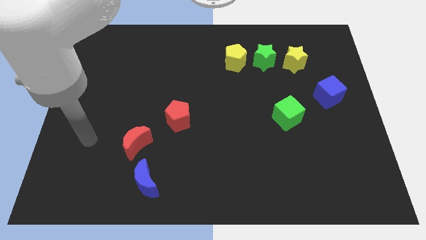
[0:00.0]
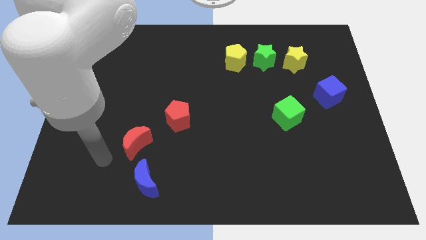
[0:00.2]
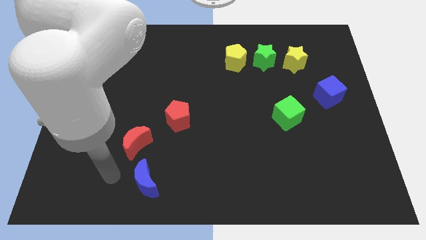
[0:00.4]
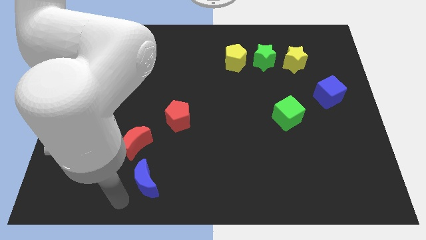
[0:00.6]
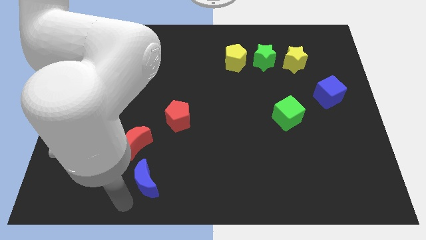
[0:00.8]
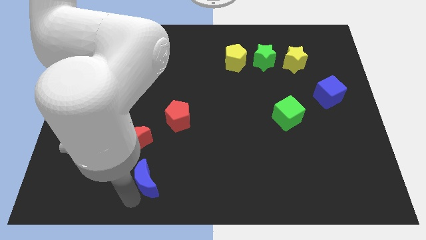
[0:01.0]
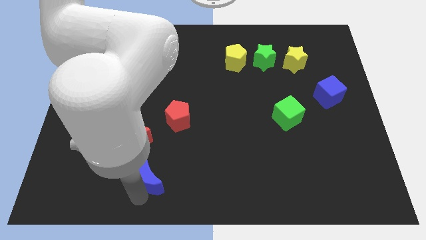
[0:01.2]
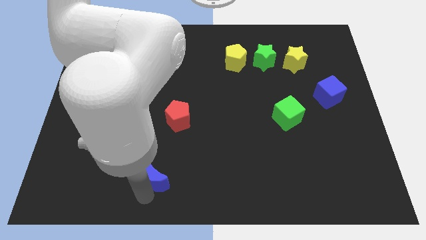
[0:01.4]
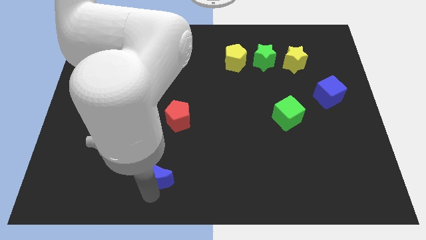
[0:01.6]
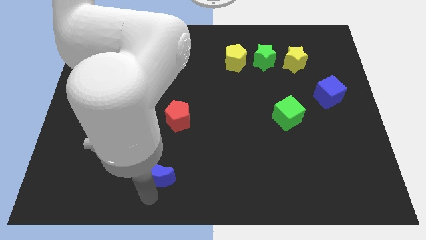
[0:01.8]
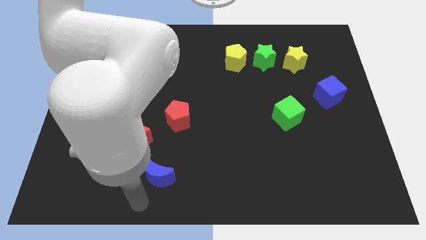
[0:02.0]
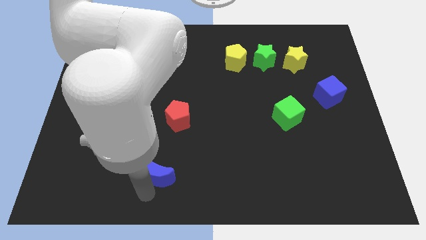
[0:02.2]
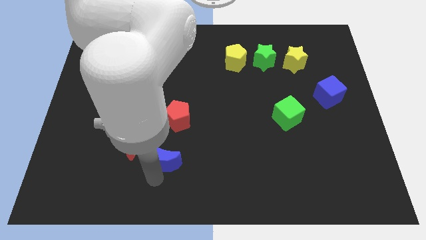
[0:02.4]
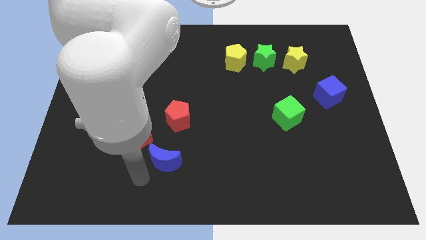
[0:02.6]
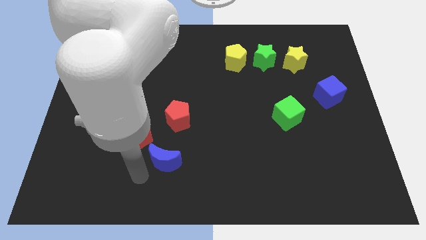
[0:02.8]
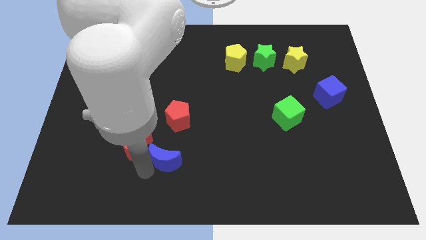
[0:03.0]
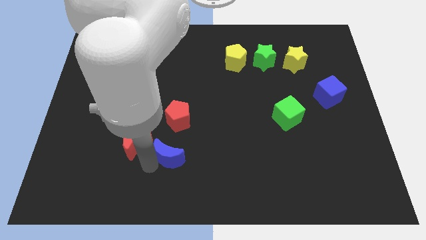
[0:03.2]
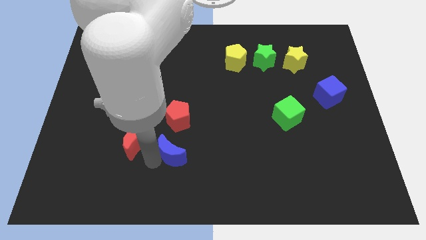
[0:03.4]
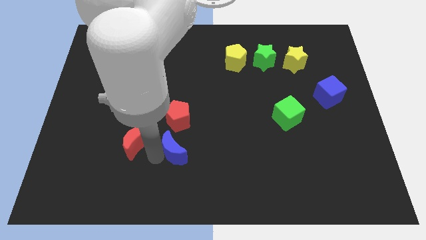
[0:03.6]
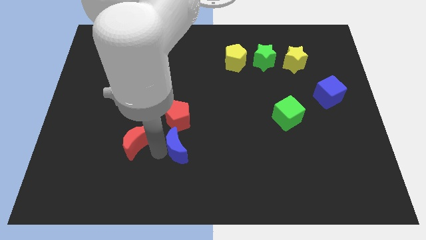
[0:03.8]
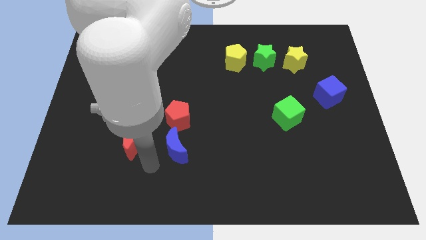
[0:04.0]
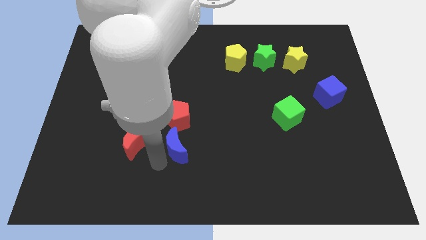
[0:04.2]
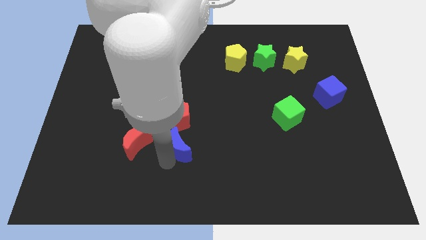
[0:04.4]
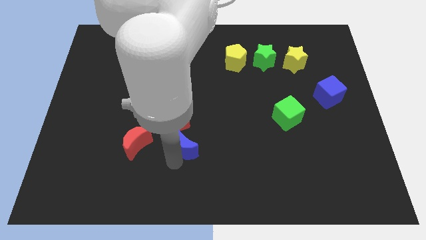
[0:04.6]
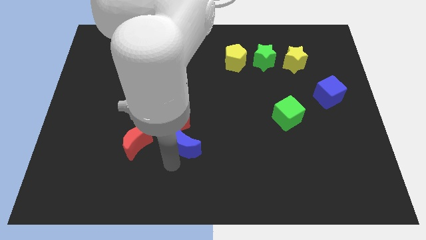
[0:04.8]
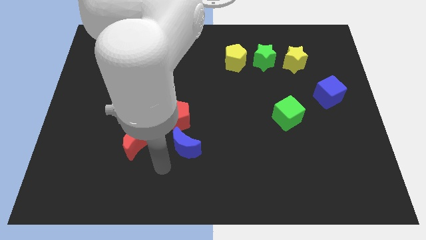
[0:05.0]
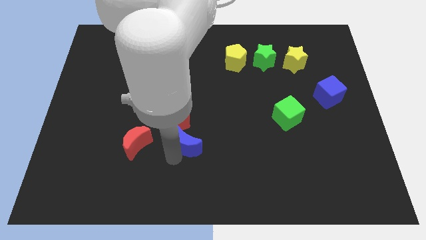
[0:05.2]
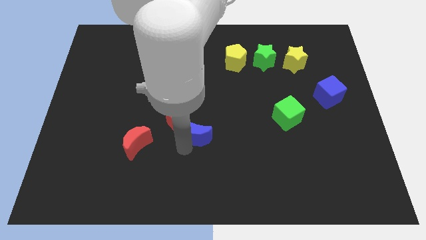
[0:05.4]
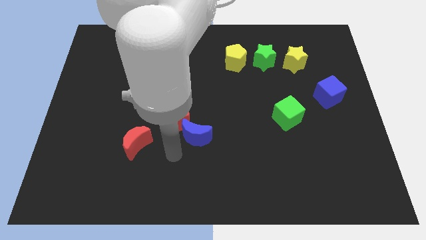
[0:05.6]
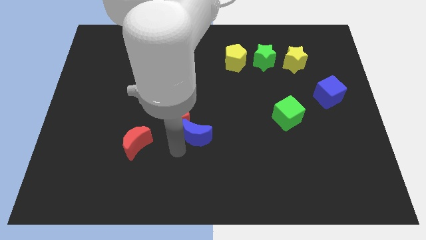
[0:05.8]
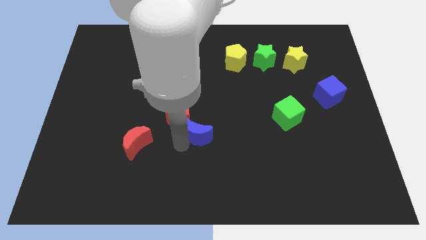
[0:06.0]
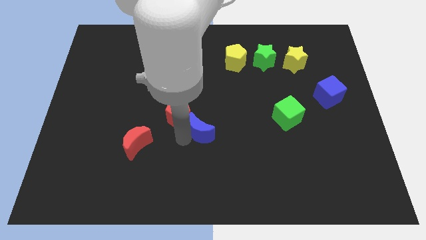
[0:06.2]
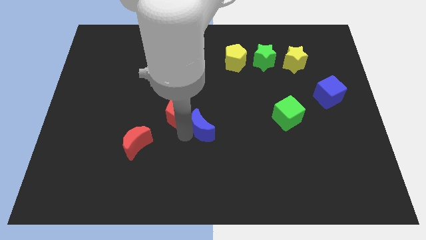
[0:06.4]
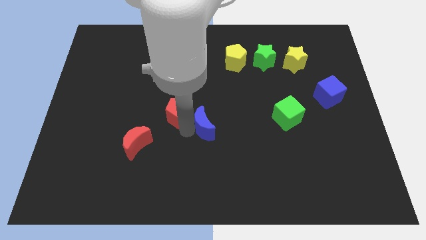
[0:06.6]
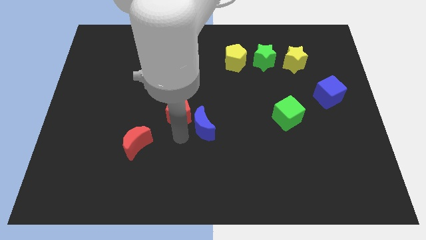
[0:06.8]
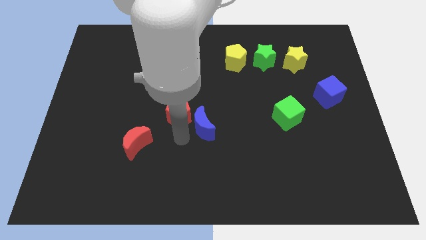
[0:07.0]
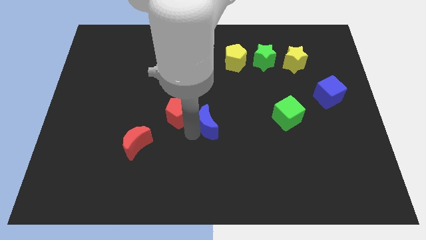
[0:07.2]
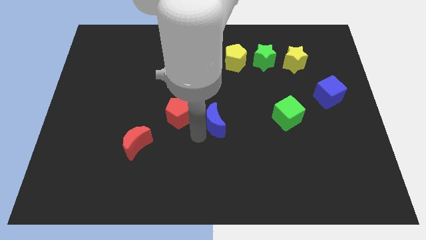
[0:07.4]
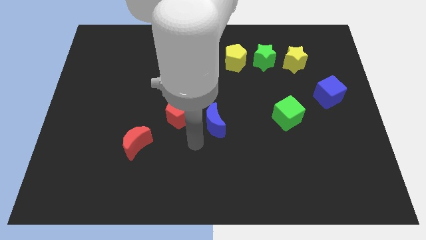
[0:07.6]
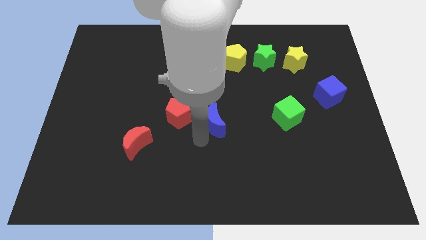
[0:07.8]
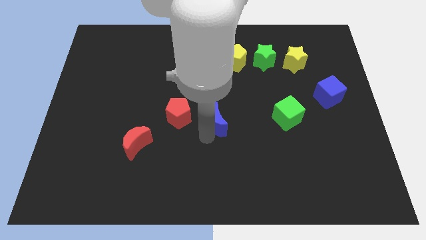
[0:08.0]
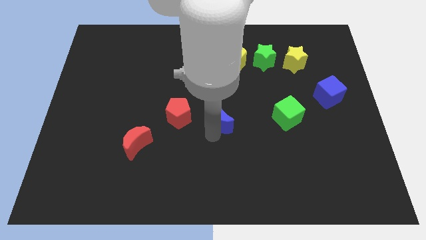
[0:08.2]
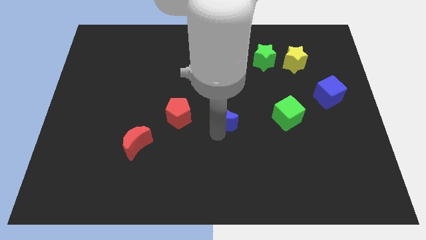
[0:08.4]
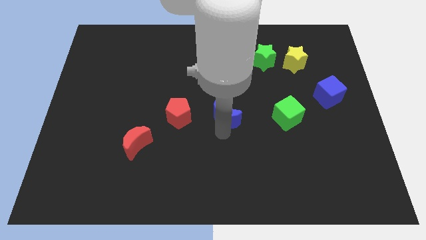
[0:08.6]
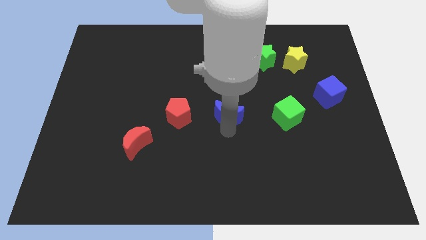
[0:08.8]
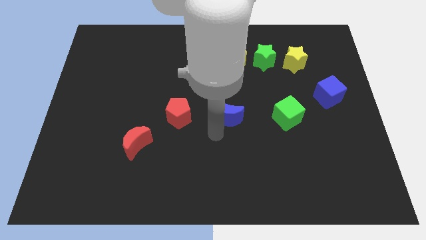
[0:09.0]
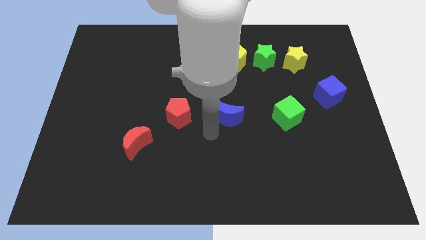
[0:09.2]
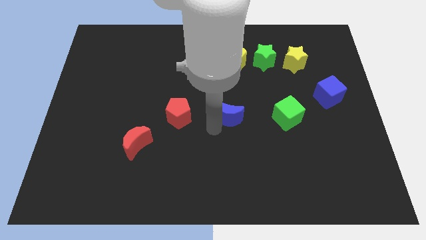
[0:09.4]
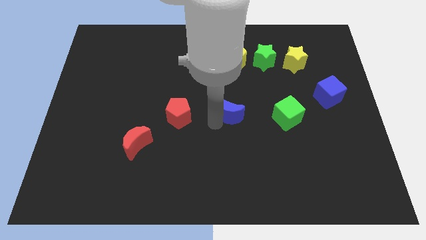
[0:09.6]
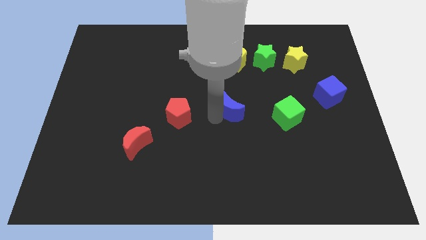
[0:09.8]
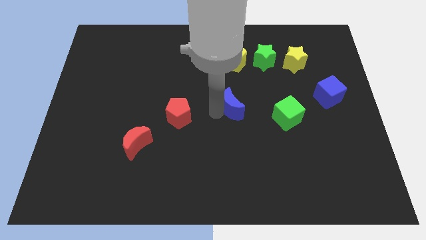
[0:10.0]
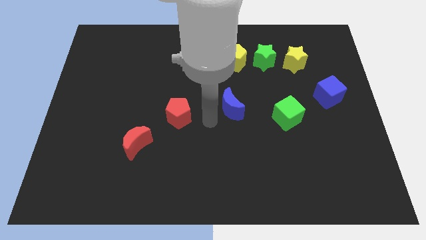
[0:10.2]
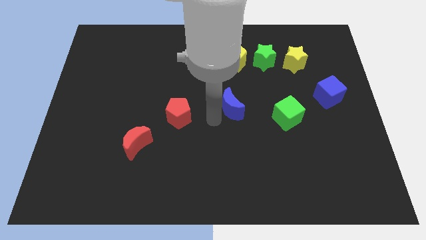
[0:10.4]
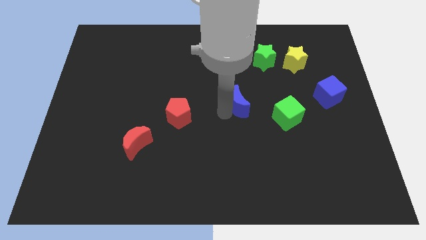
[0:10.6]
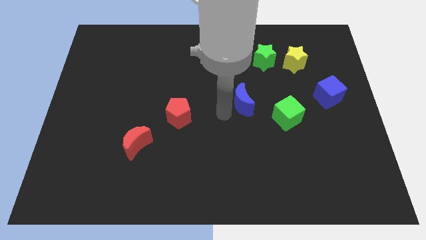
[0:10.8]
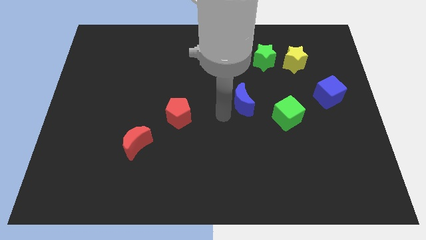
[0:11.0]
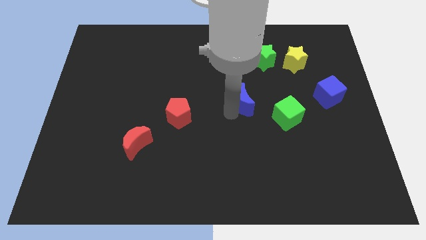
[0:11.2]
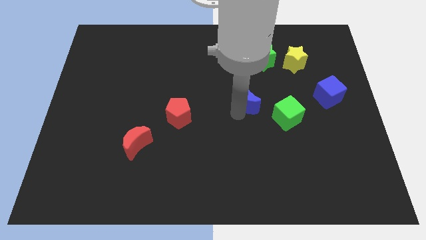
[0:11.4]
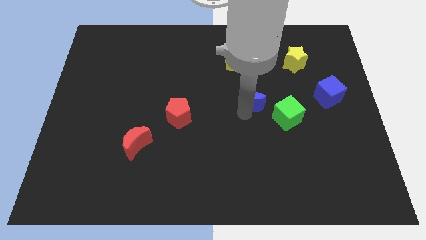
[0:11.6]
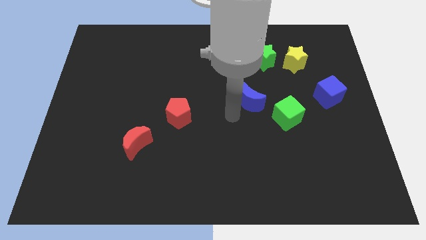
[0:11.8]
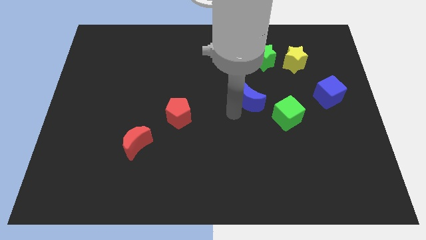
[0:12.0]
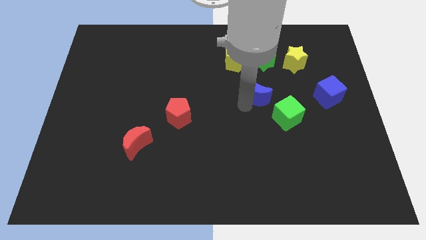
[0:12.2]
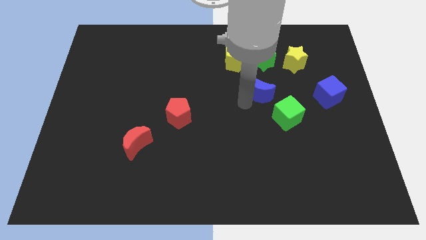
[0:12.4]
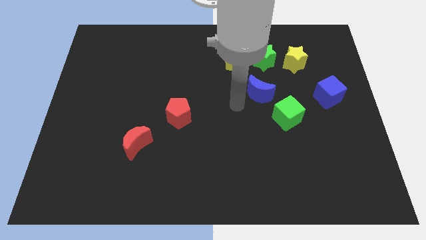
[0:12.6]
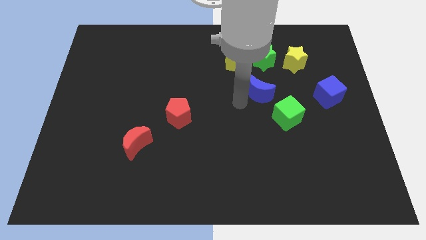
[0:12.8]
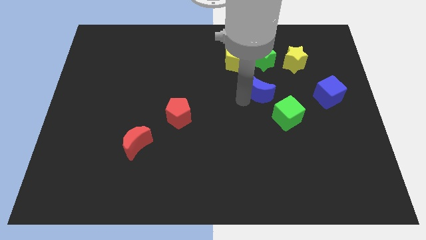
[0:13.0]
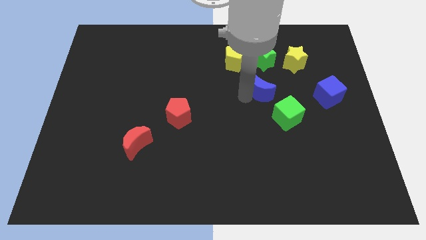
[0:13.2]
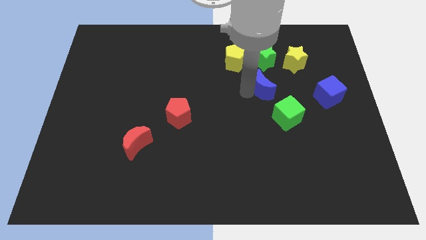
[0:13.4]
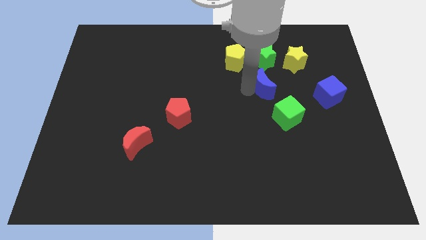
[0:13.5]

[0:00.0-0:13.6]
move the blue moon above the green cube
